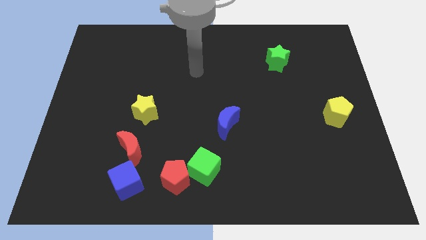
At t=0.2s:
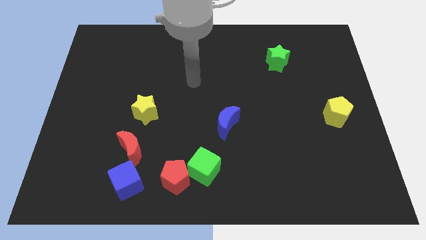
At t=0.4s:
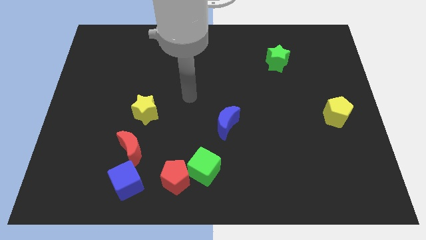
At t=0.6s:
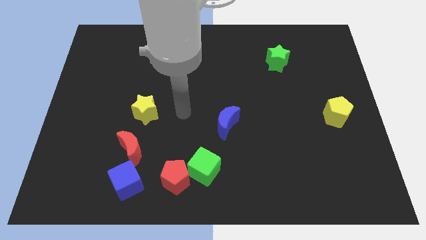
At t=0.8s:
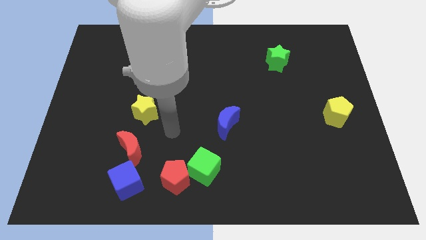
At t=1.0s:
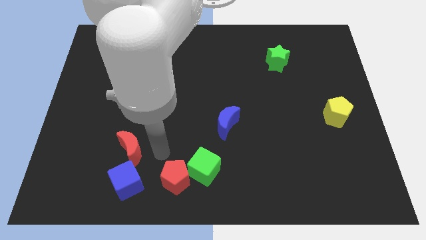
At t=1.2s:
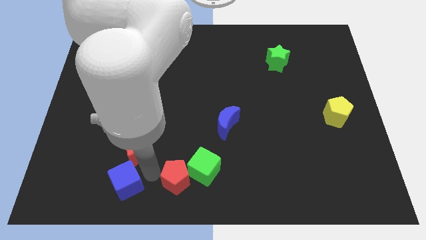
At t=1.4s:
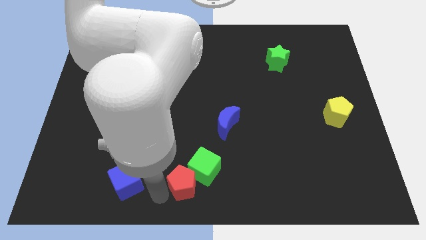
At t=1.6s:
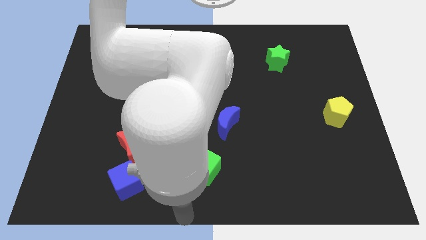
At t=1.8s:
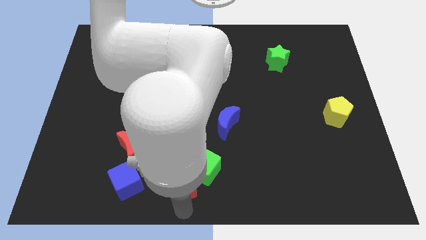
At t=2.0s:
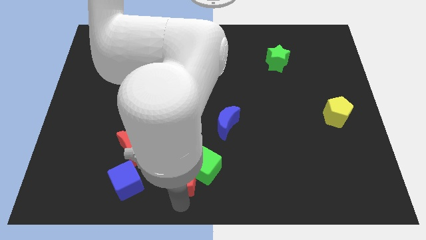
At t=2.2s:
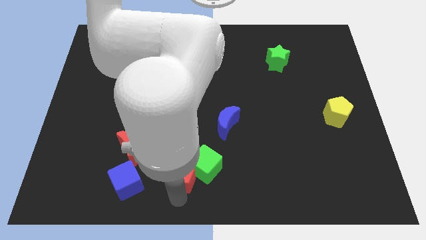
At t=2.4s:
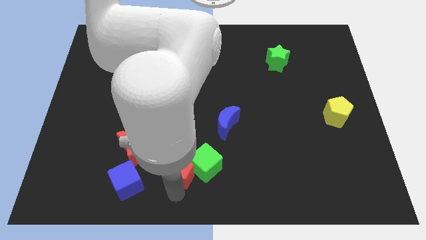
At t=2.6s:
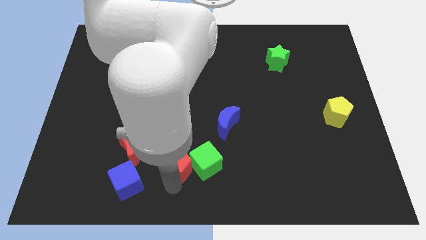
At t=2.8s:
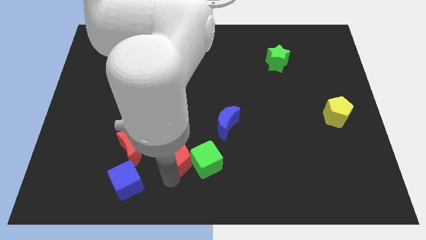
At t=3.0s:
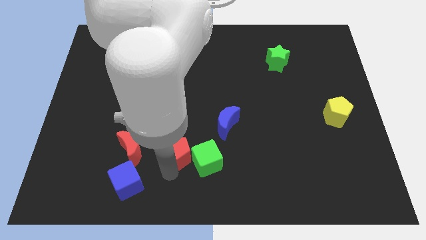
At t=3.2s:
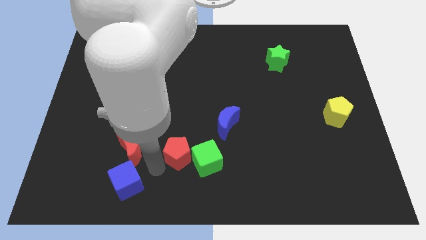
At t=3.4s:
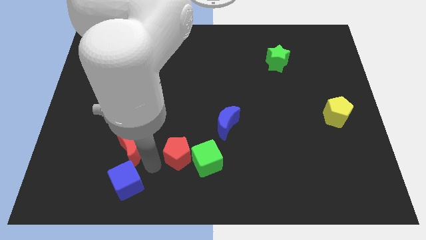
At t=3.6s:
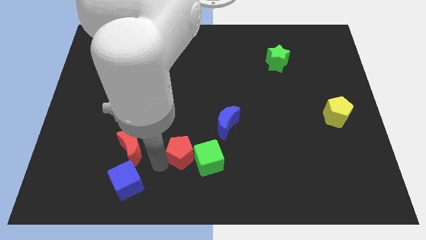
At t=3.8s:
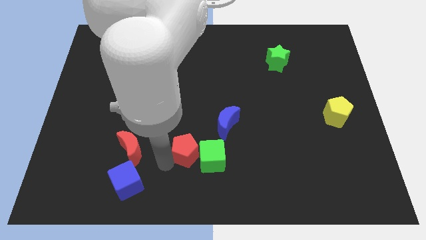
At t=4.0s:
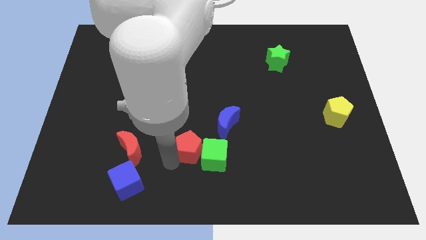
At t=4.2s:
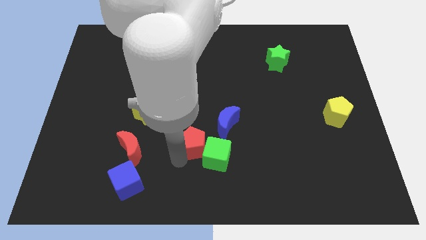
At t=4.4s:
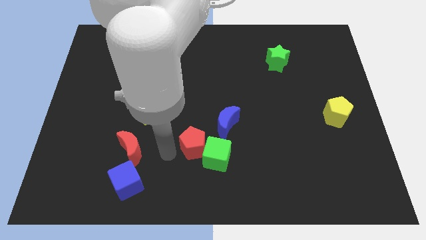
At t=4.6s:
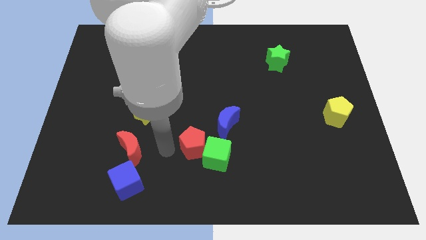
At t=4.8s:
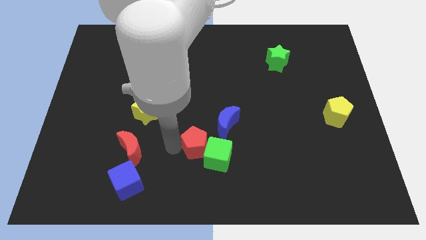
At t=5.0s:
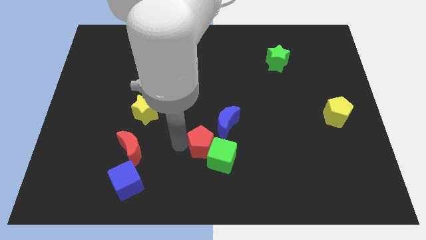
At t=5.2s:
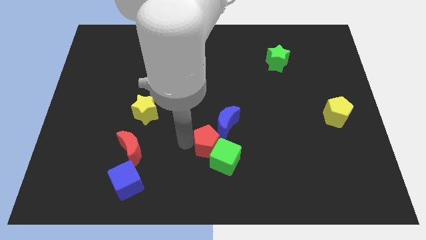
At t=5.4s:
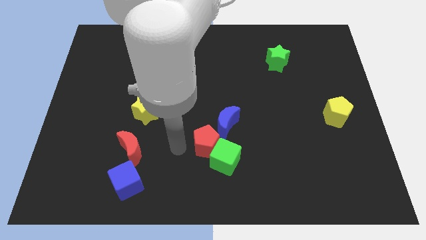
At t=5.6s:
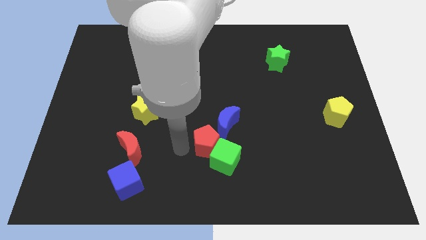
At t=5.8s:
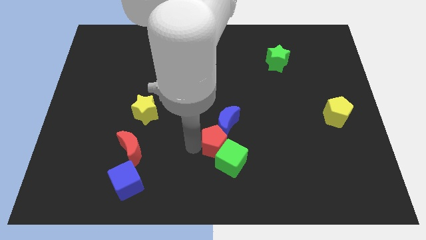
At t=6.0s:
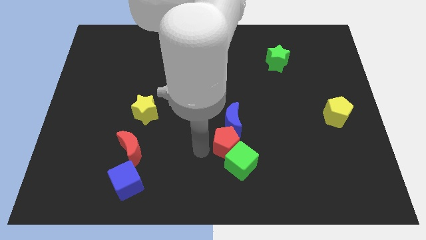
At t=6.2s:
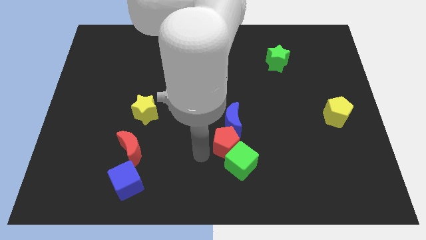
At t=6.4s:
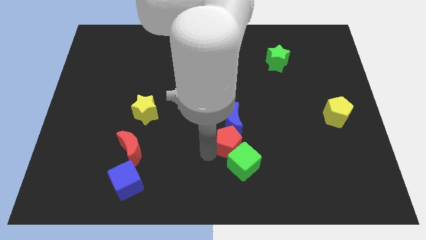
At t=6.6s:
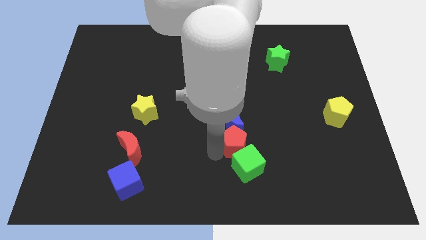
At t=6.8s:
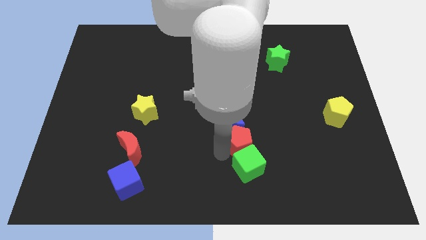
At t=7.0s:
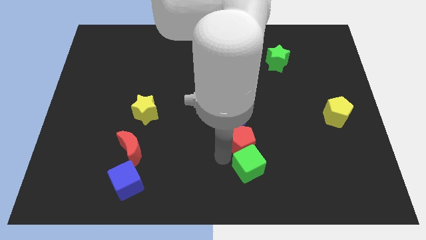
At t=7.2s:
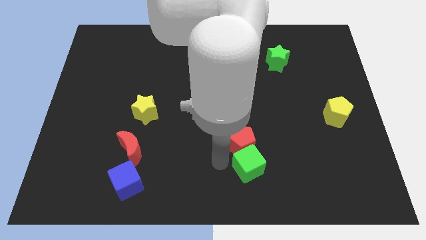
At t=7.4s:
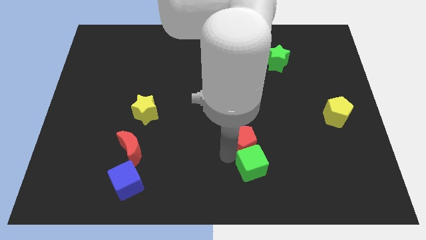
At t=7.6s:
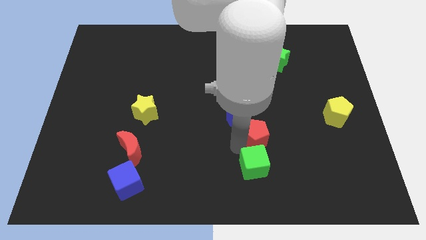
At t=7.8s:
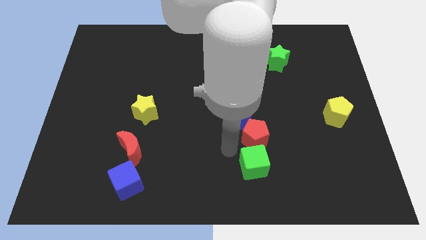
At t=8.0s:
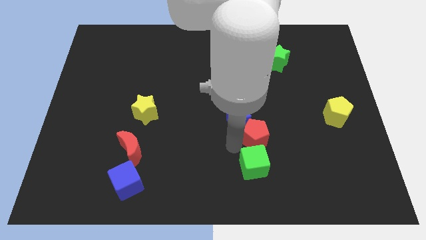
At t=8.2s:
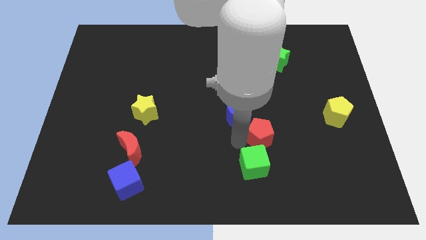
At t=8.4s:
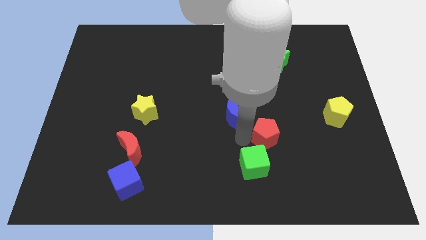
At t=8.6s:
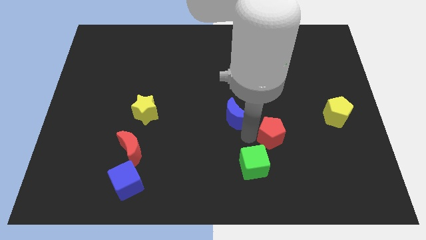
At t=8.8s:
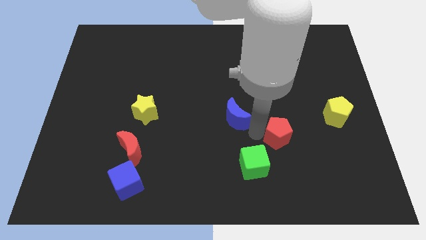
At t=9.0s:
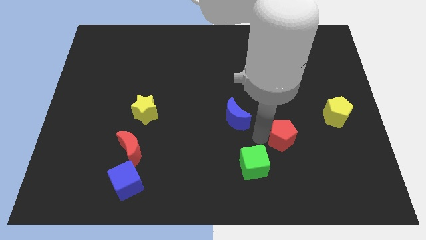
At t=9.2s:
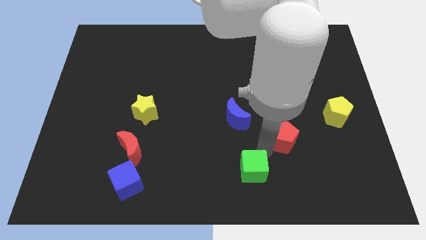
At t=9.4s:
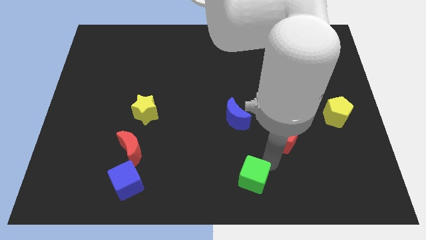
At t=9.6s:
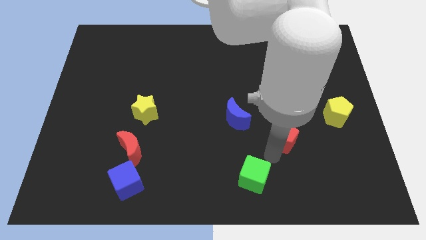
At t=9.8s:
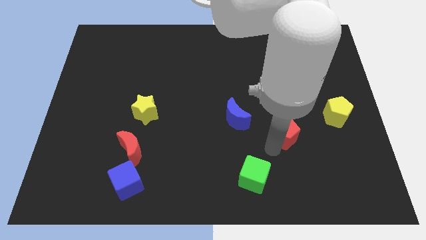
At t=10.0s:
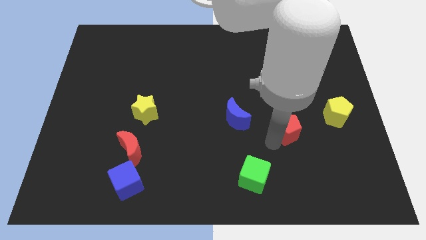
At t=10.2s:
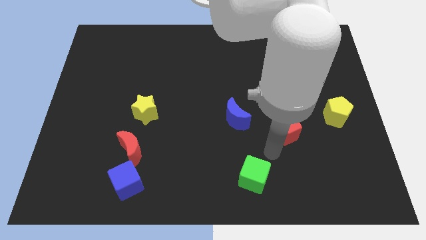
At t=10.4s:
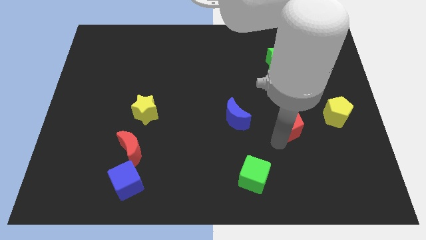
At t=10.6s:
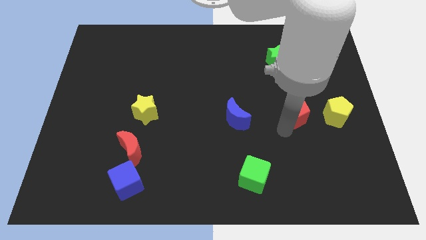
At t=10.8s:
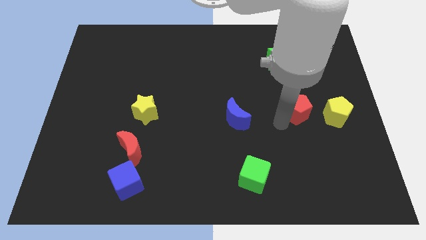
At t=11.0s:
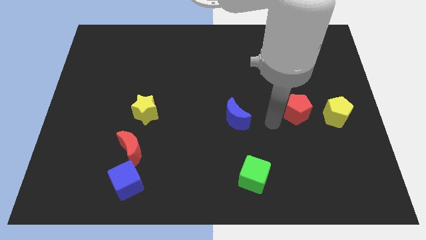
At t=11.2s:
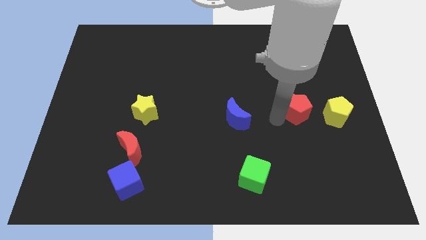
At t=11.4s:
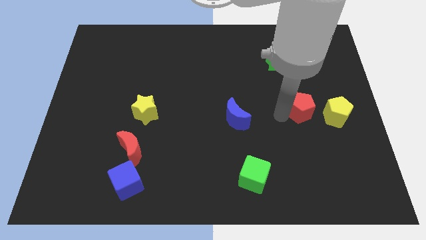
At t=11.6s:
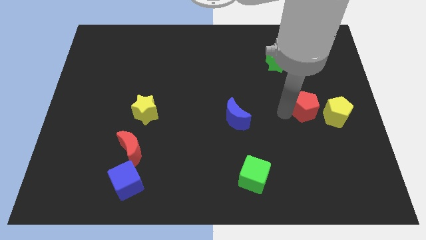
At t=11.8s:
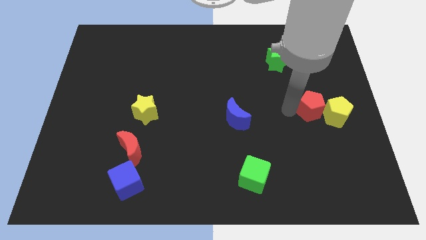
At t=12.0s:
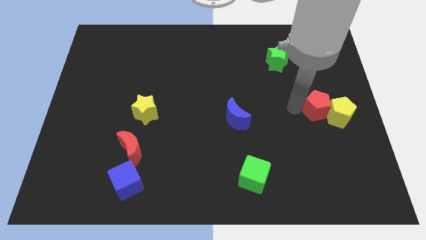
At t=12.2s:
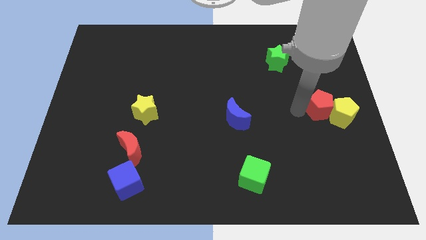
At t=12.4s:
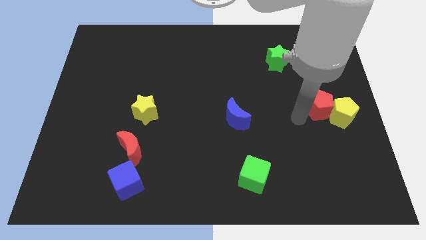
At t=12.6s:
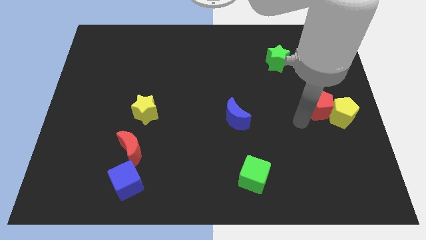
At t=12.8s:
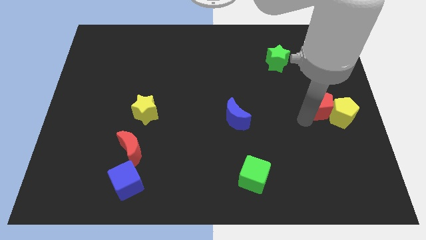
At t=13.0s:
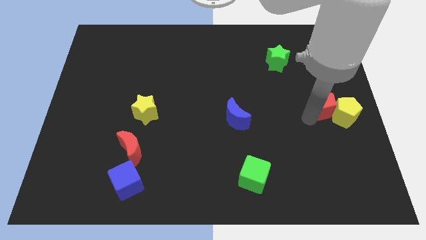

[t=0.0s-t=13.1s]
push the red pentagon to the center right

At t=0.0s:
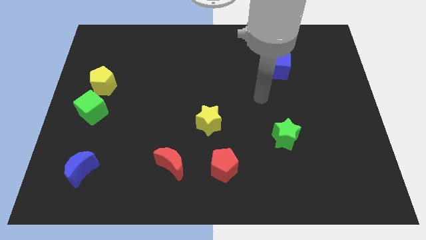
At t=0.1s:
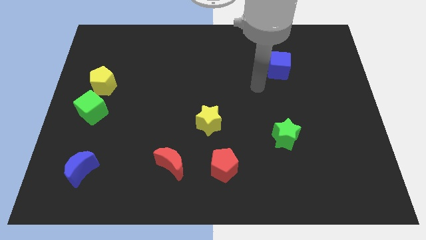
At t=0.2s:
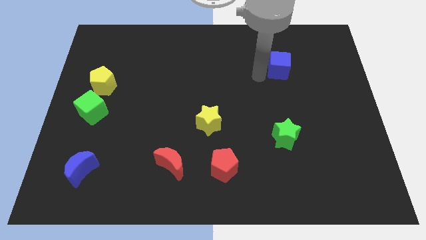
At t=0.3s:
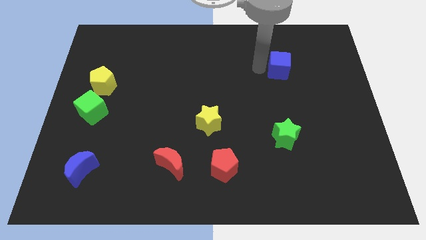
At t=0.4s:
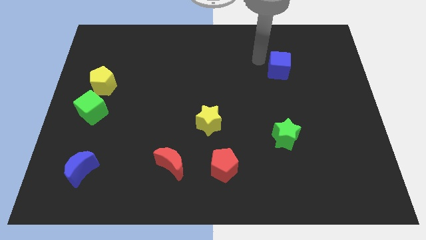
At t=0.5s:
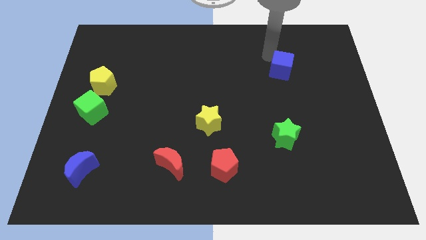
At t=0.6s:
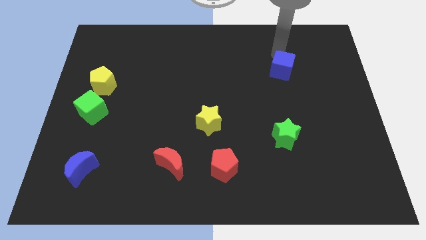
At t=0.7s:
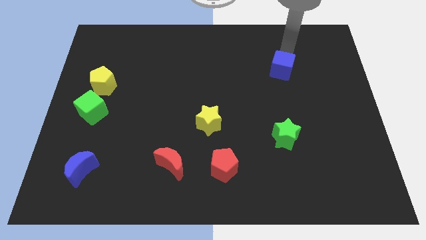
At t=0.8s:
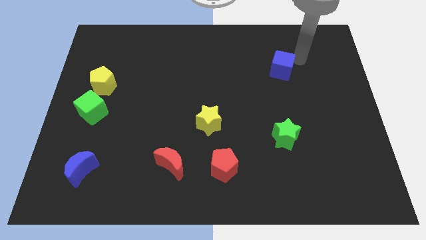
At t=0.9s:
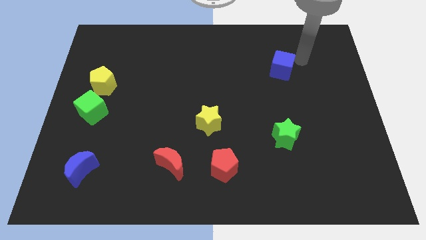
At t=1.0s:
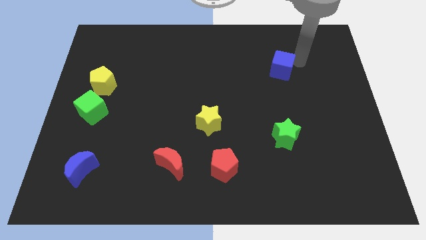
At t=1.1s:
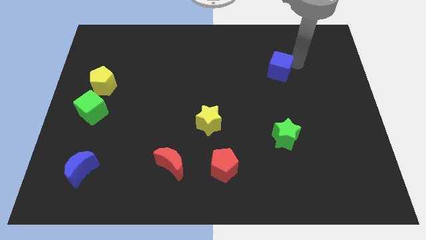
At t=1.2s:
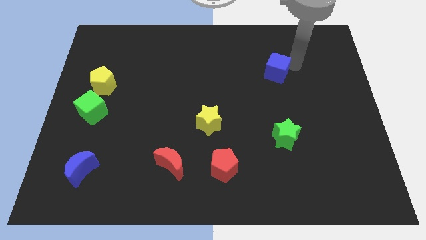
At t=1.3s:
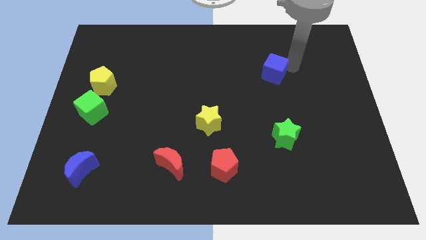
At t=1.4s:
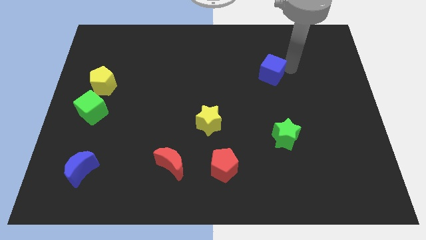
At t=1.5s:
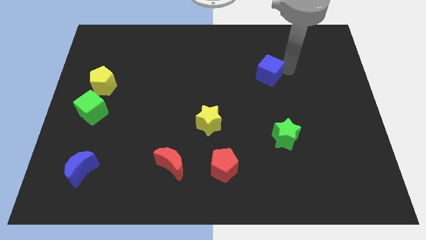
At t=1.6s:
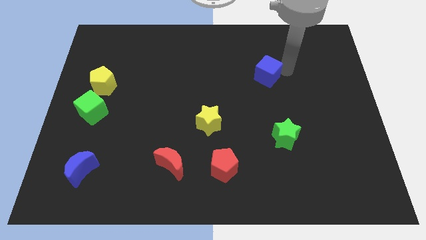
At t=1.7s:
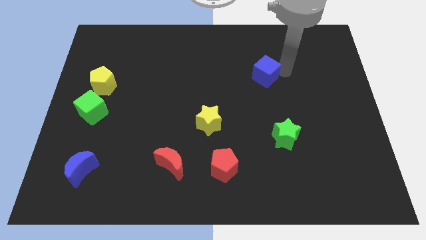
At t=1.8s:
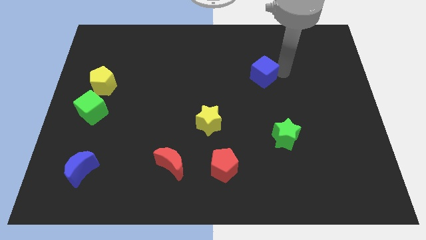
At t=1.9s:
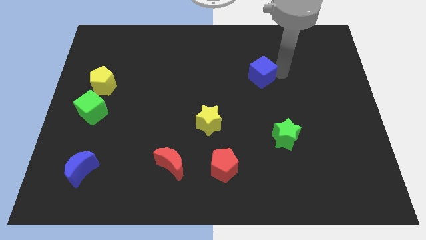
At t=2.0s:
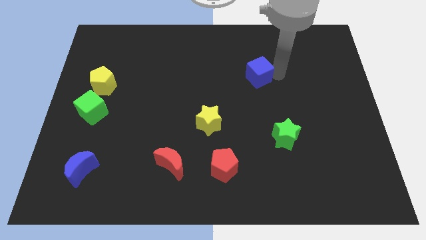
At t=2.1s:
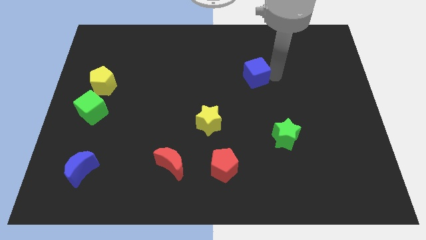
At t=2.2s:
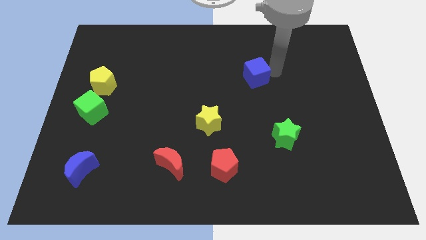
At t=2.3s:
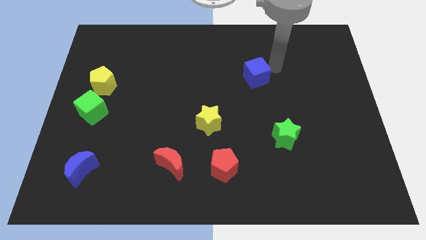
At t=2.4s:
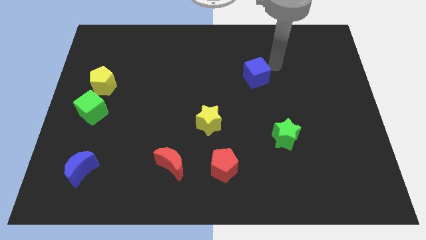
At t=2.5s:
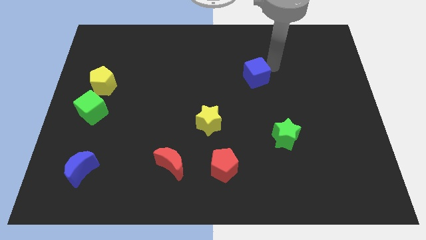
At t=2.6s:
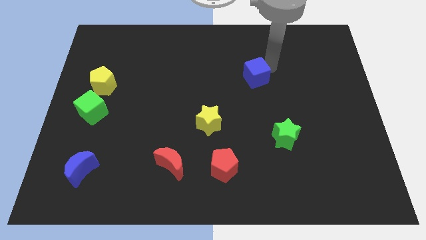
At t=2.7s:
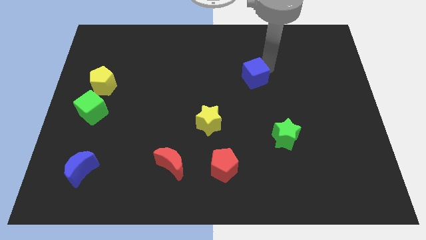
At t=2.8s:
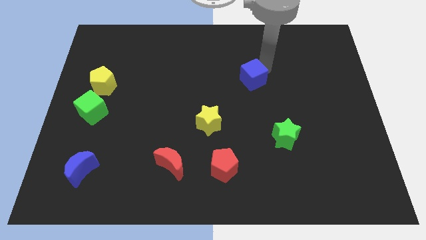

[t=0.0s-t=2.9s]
slide the blue cube to the middle
